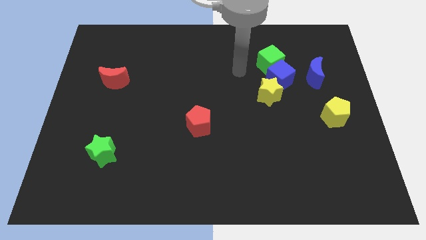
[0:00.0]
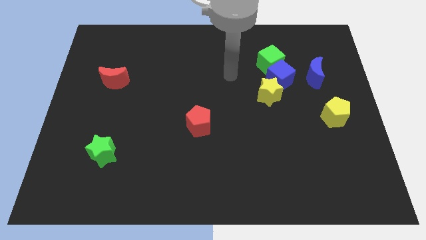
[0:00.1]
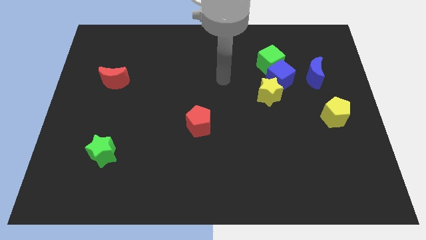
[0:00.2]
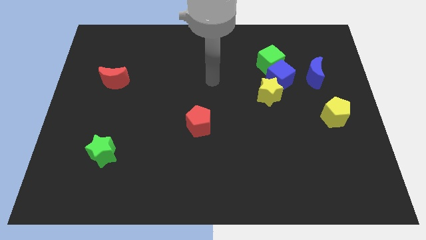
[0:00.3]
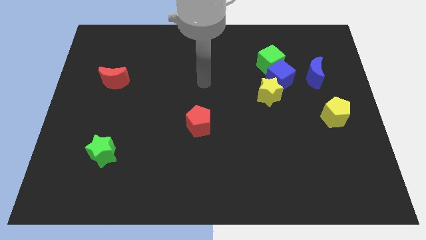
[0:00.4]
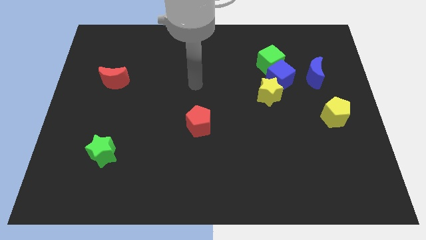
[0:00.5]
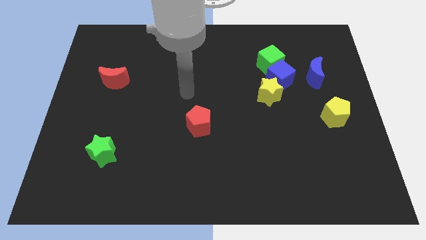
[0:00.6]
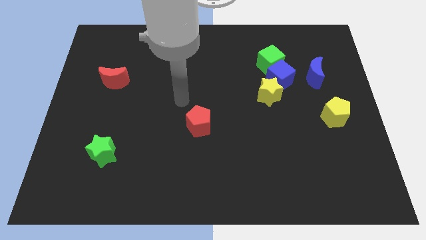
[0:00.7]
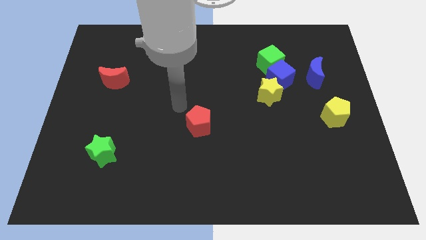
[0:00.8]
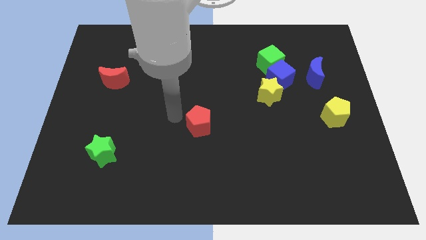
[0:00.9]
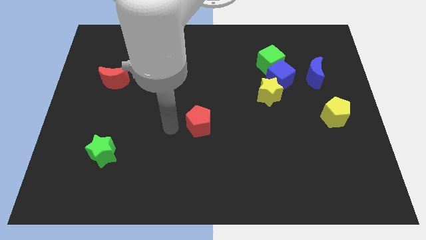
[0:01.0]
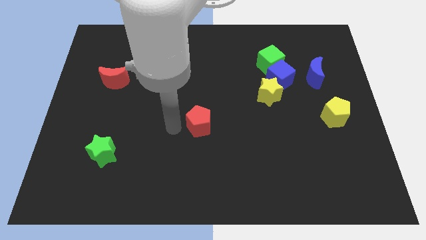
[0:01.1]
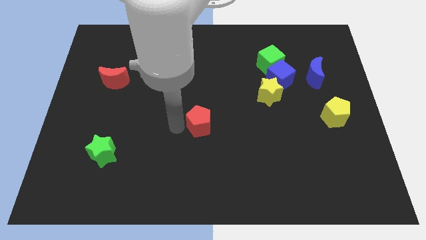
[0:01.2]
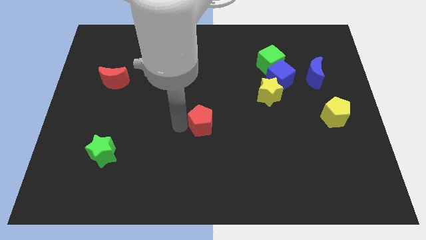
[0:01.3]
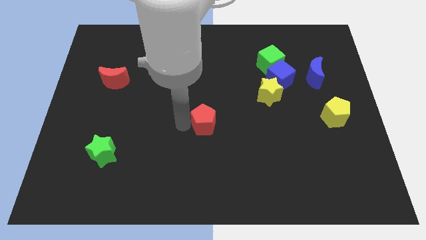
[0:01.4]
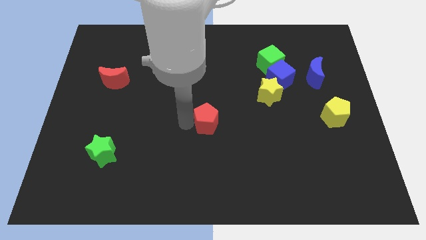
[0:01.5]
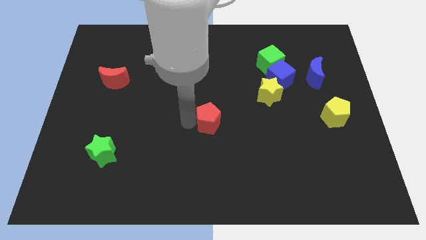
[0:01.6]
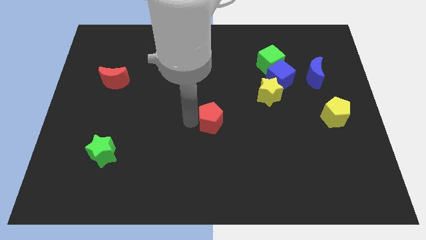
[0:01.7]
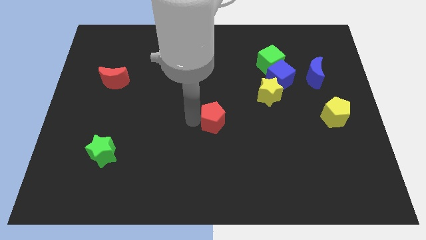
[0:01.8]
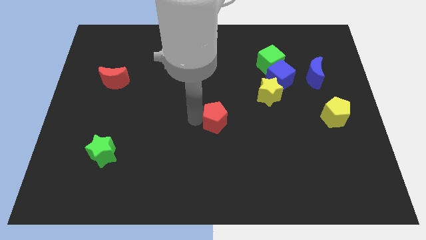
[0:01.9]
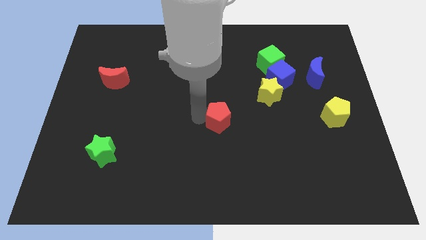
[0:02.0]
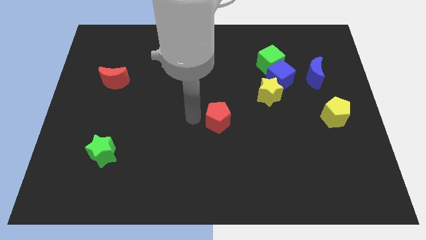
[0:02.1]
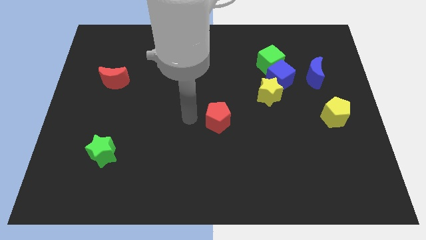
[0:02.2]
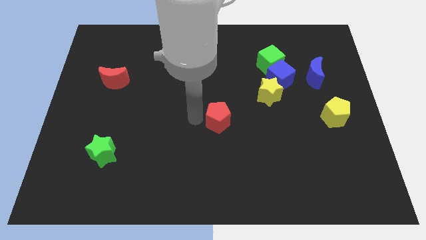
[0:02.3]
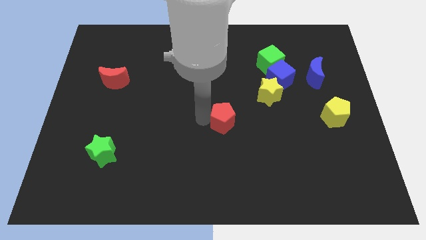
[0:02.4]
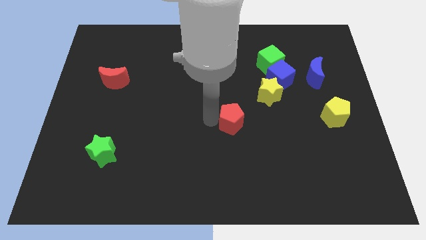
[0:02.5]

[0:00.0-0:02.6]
slightly move the red pentagon to the right

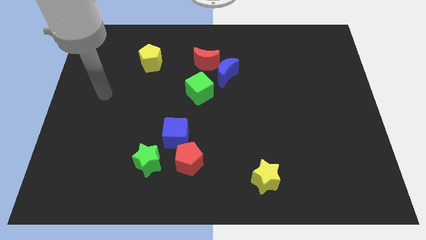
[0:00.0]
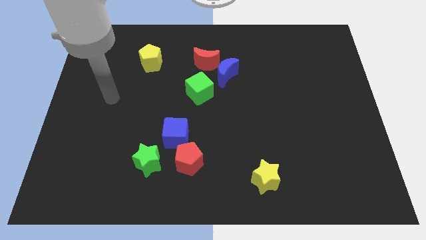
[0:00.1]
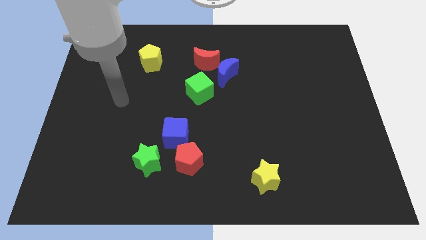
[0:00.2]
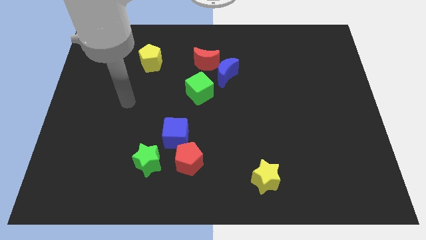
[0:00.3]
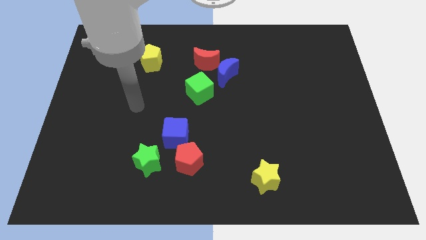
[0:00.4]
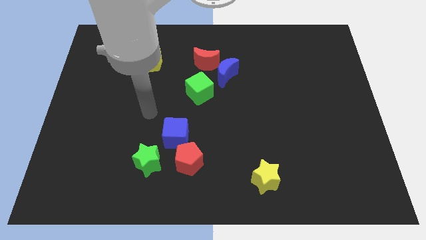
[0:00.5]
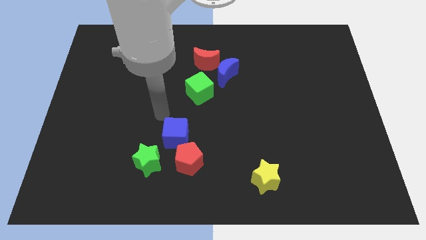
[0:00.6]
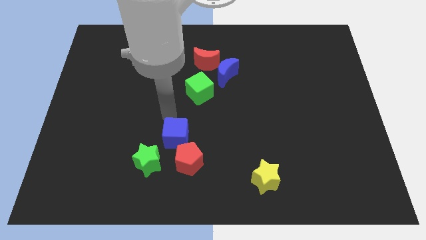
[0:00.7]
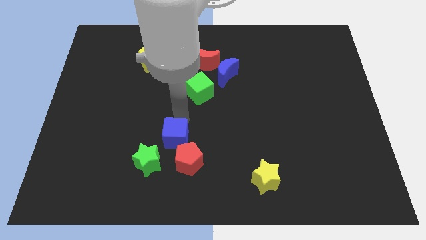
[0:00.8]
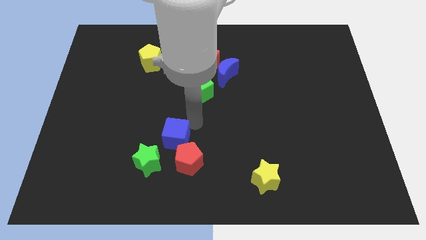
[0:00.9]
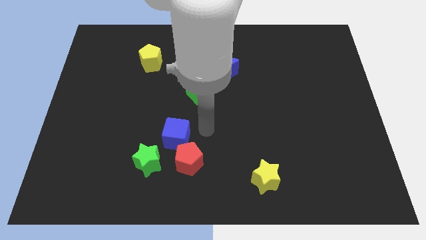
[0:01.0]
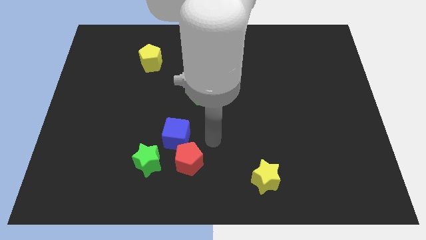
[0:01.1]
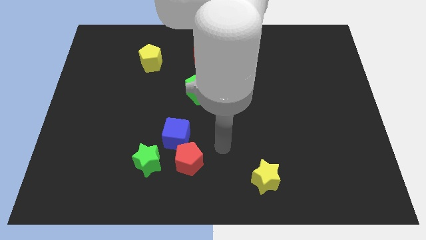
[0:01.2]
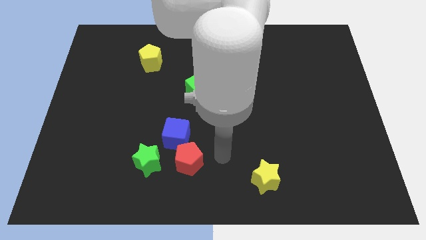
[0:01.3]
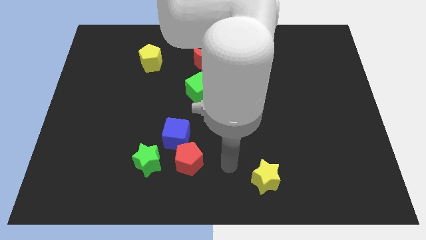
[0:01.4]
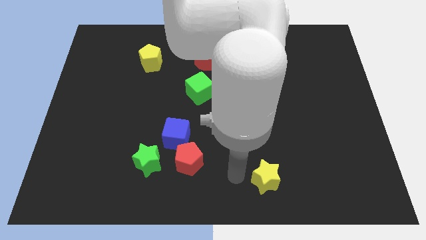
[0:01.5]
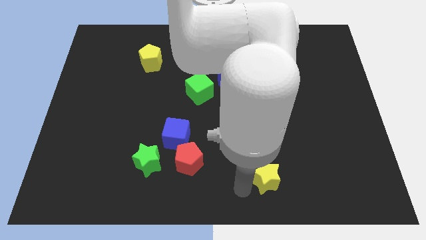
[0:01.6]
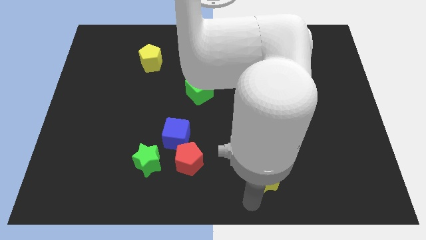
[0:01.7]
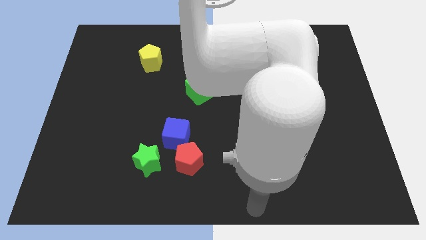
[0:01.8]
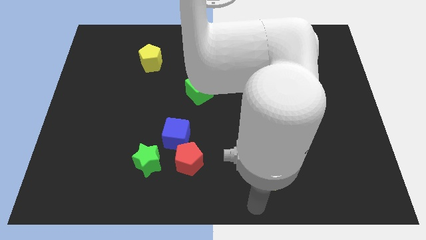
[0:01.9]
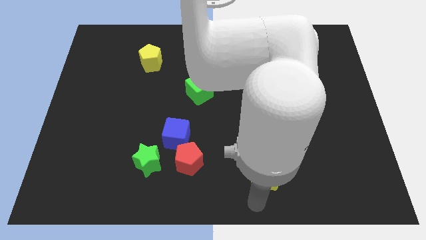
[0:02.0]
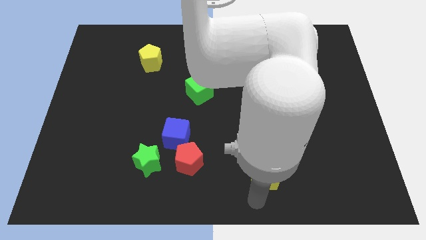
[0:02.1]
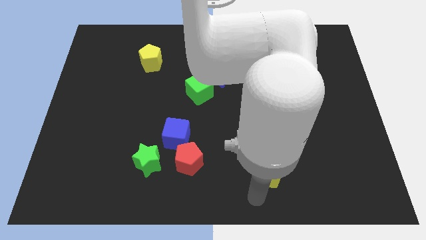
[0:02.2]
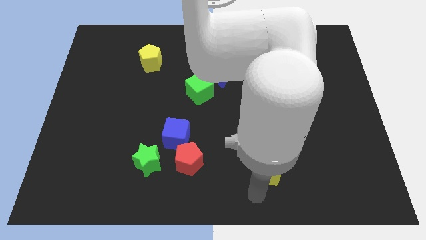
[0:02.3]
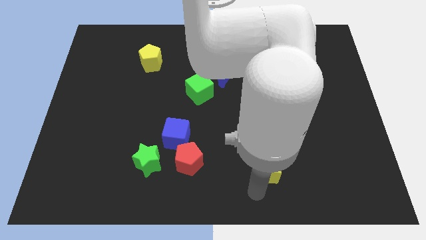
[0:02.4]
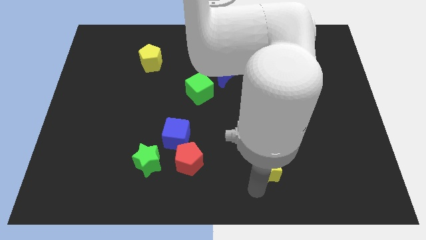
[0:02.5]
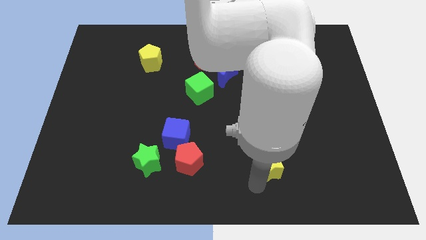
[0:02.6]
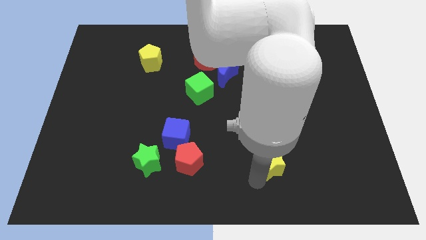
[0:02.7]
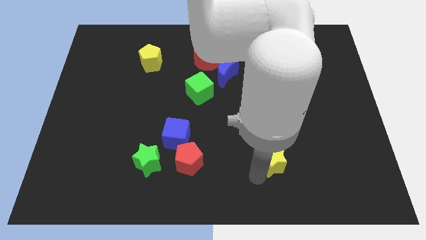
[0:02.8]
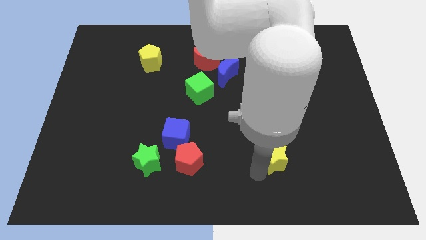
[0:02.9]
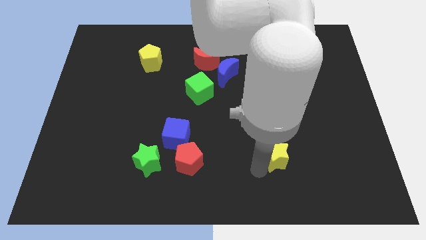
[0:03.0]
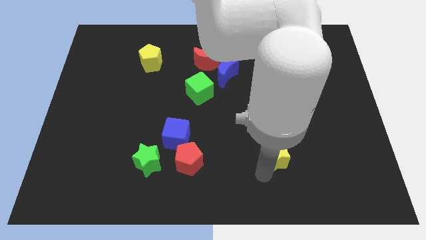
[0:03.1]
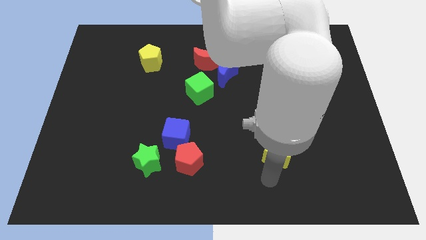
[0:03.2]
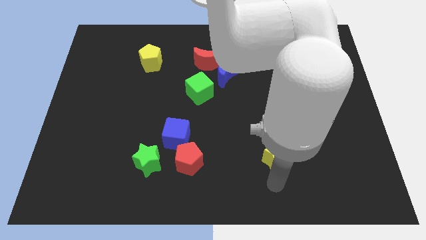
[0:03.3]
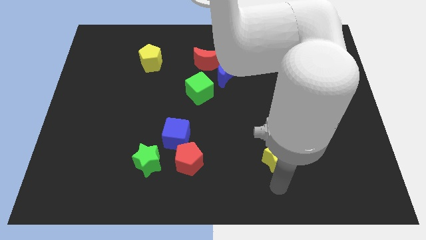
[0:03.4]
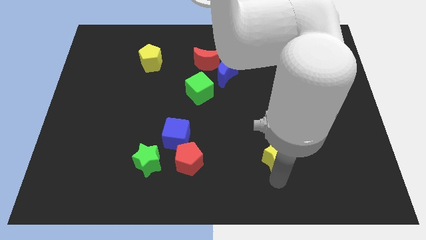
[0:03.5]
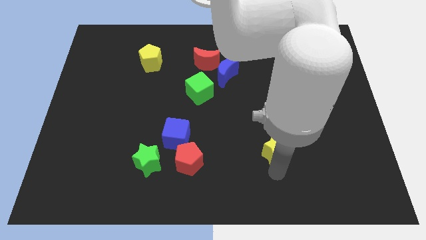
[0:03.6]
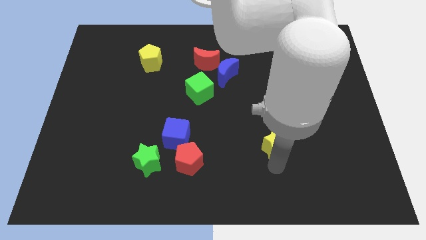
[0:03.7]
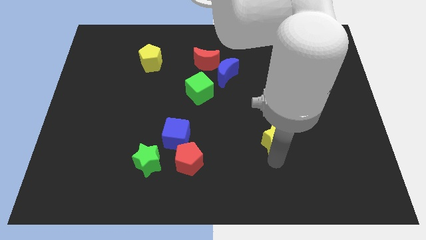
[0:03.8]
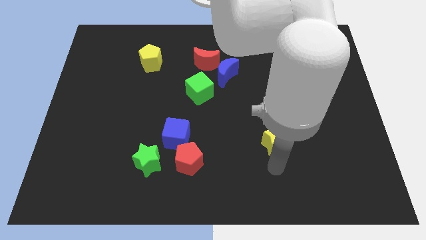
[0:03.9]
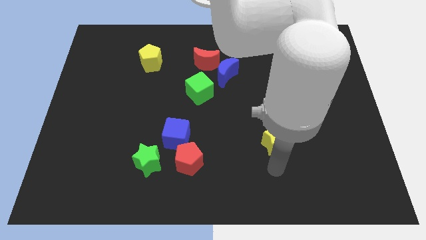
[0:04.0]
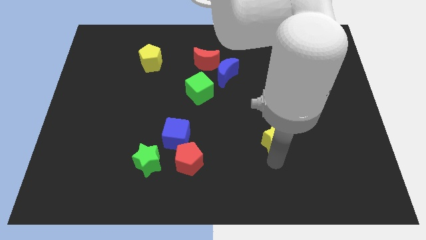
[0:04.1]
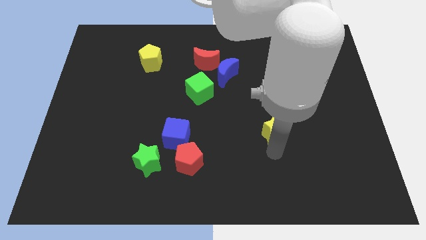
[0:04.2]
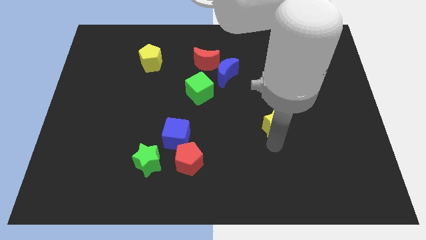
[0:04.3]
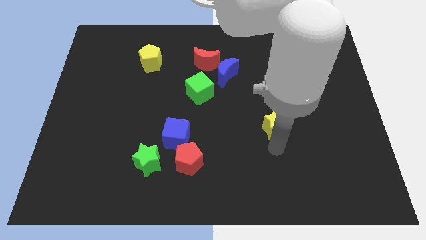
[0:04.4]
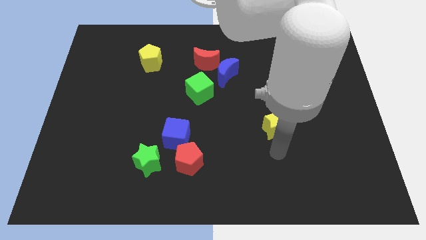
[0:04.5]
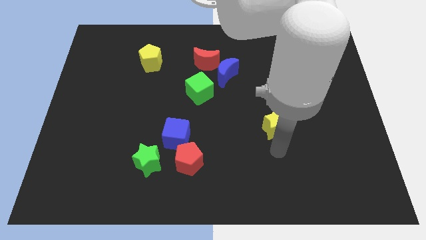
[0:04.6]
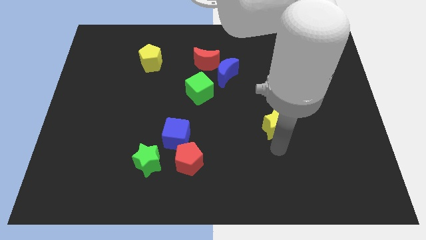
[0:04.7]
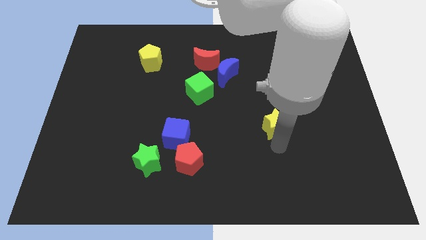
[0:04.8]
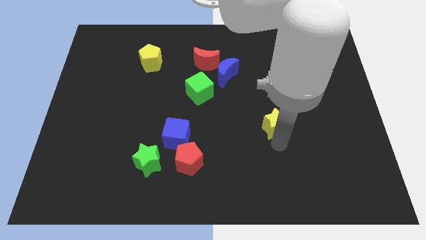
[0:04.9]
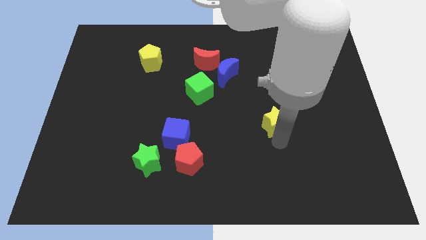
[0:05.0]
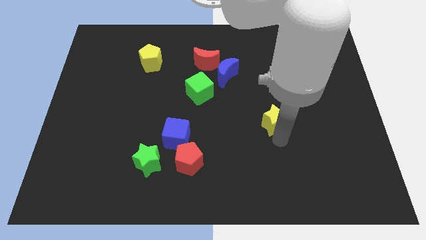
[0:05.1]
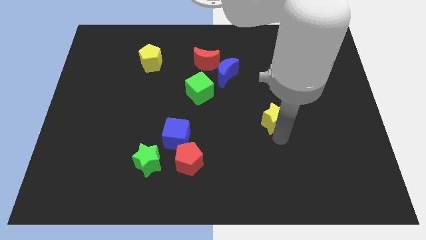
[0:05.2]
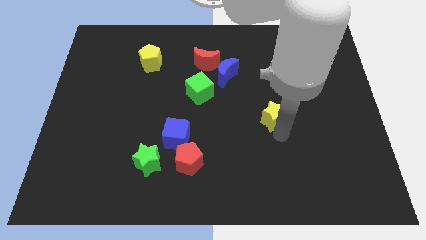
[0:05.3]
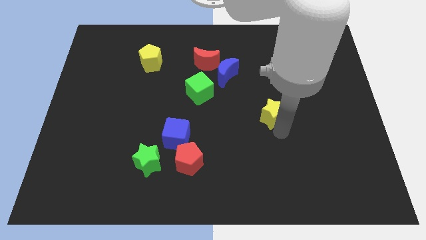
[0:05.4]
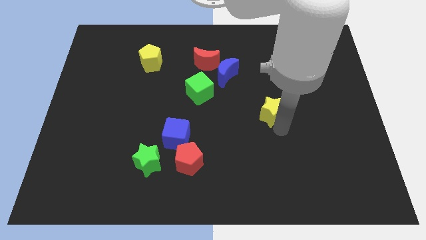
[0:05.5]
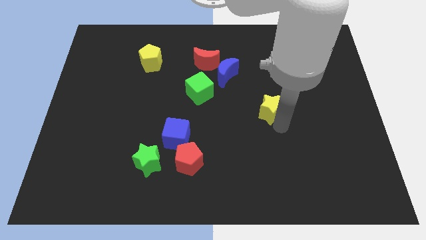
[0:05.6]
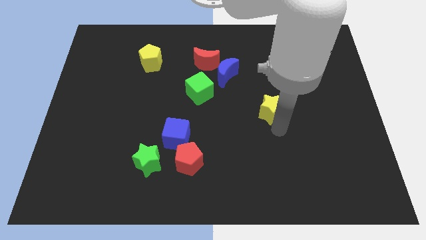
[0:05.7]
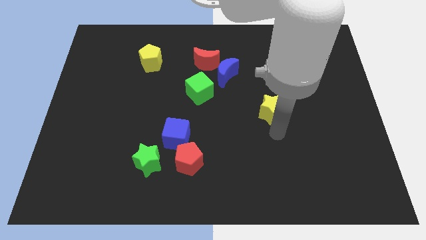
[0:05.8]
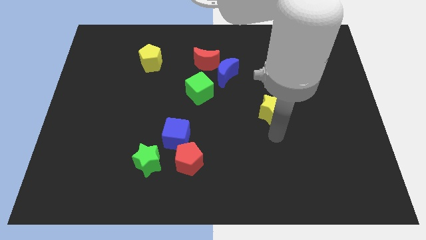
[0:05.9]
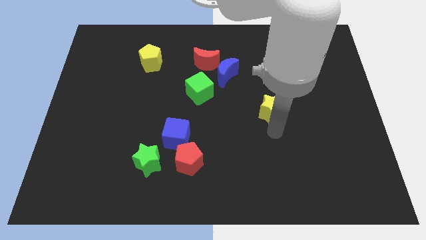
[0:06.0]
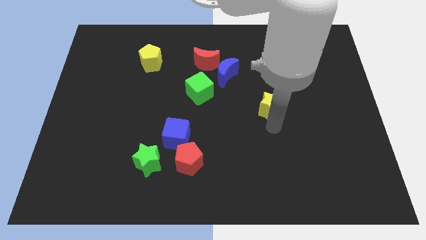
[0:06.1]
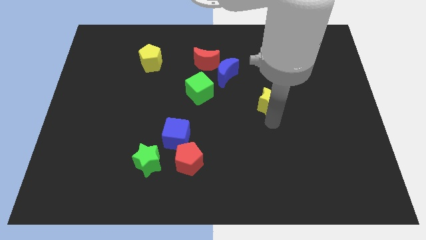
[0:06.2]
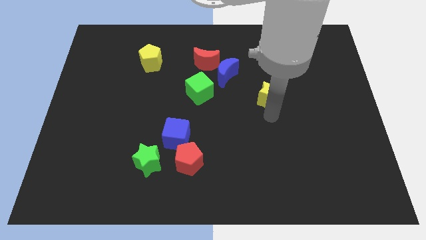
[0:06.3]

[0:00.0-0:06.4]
move the yellow star up
